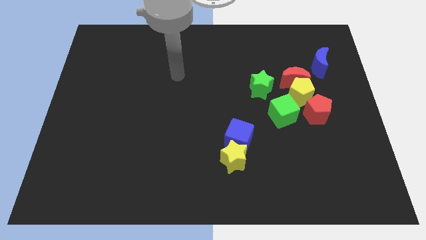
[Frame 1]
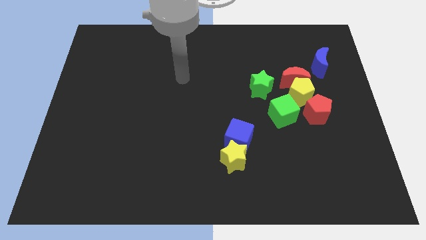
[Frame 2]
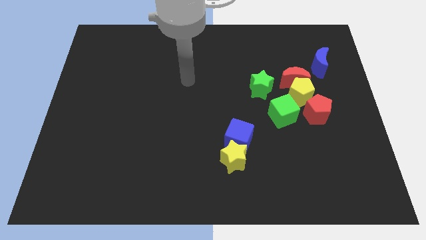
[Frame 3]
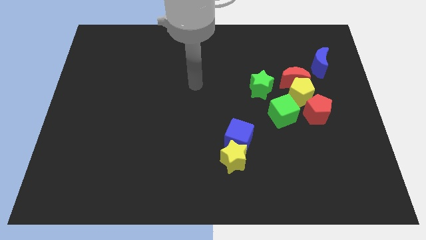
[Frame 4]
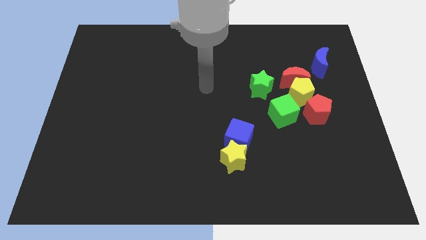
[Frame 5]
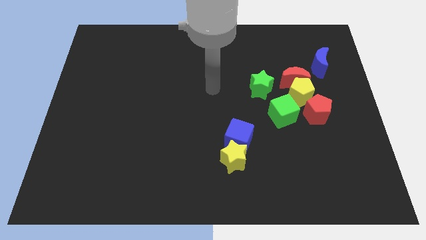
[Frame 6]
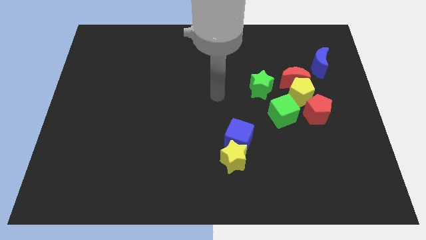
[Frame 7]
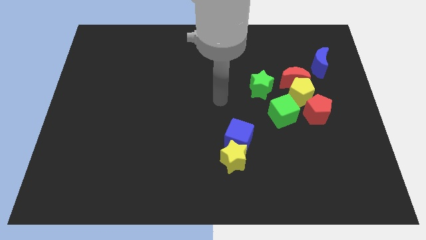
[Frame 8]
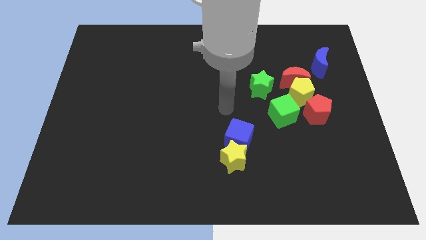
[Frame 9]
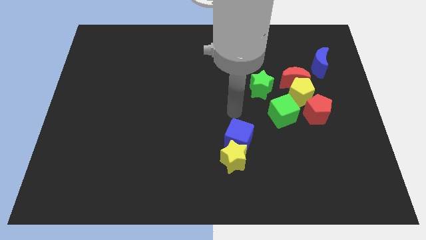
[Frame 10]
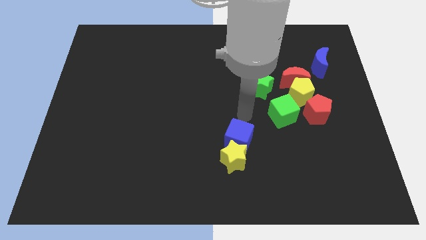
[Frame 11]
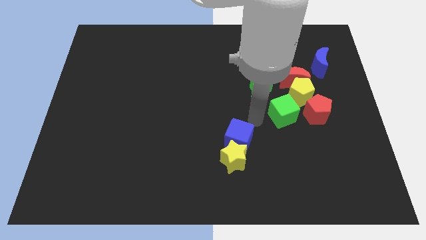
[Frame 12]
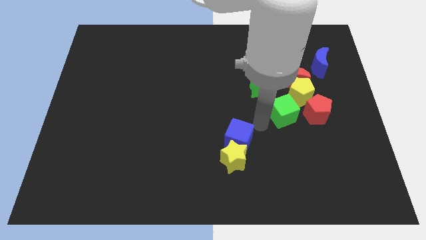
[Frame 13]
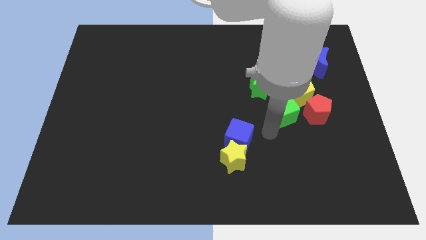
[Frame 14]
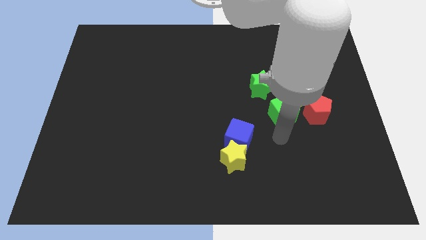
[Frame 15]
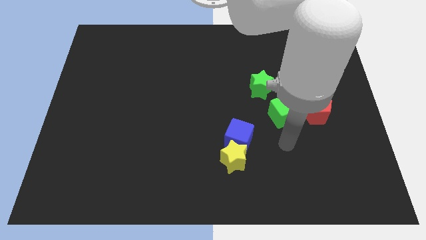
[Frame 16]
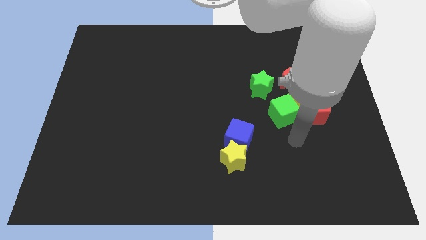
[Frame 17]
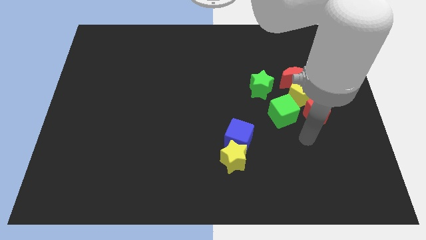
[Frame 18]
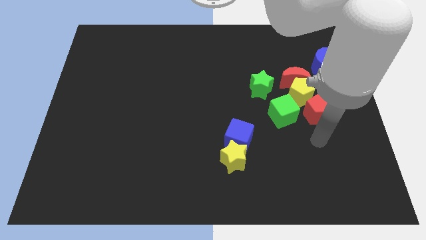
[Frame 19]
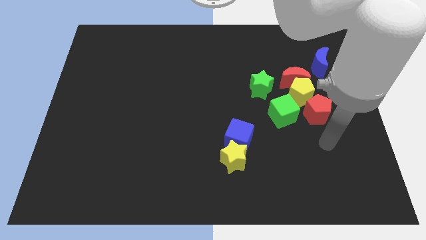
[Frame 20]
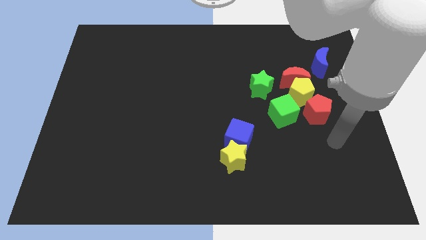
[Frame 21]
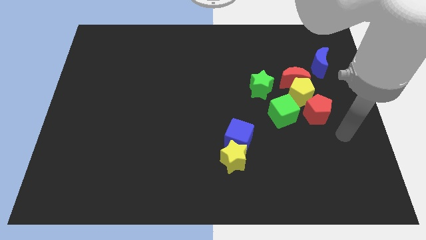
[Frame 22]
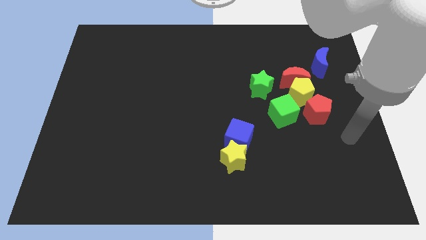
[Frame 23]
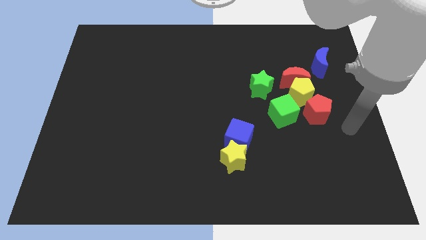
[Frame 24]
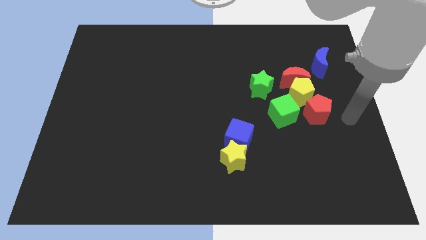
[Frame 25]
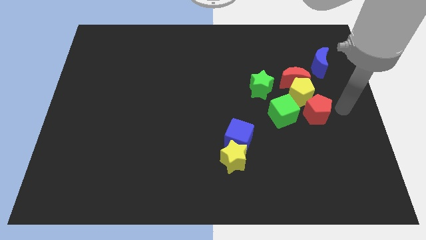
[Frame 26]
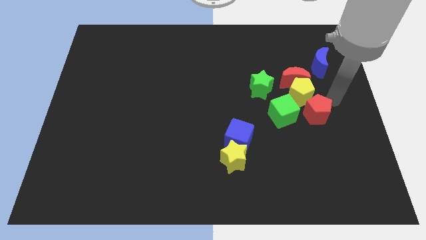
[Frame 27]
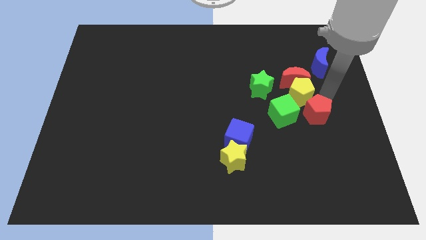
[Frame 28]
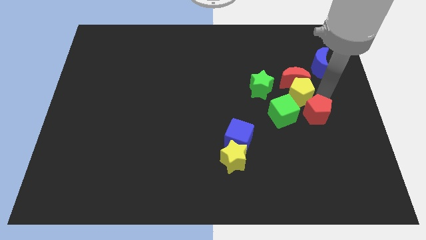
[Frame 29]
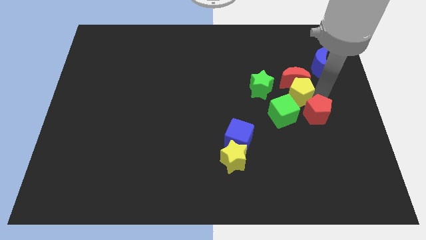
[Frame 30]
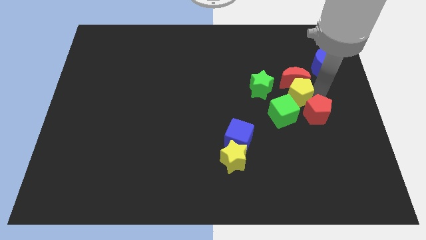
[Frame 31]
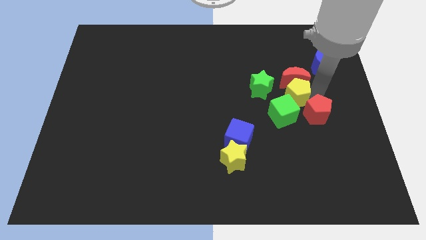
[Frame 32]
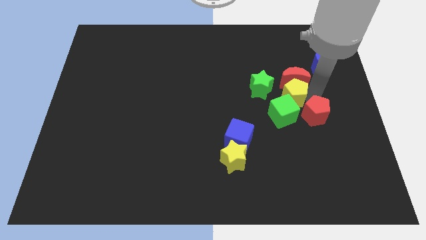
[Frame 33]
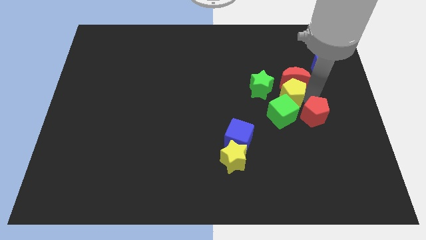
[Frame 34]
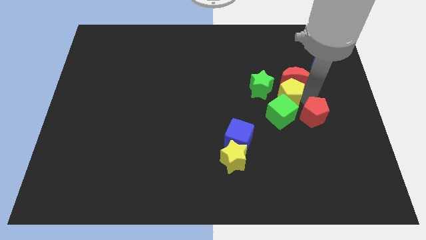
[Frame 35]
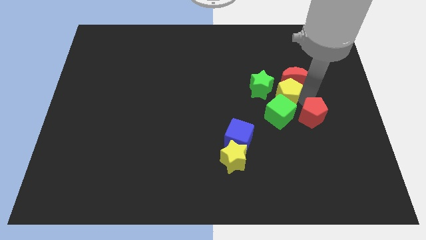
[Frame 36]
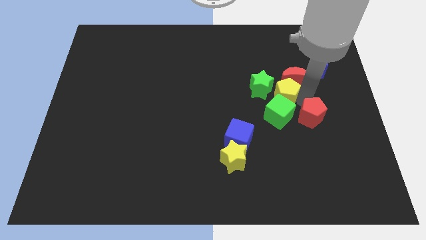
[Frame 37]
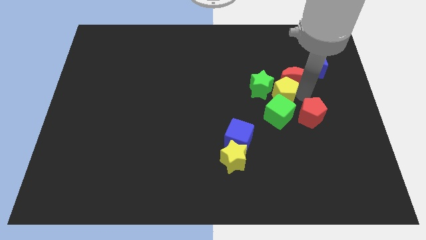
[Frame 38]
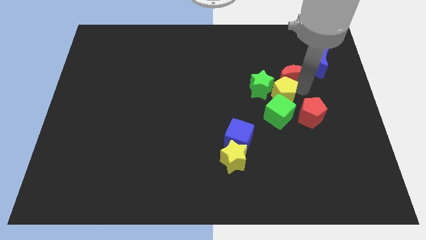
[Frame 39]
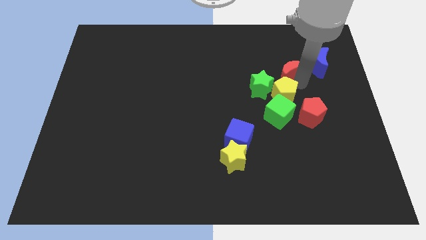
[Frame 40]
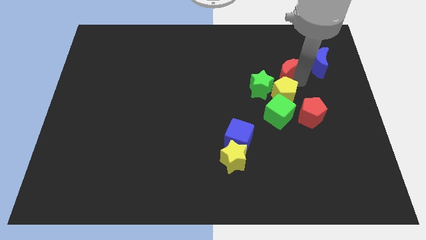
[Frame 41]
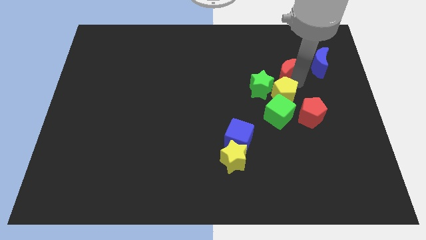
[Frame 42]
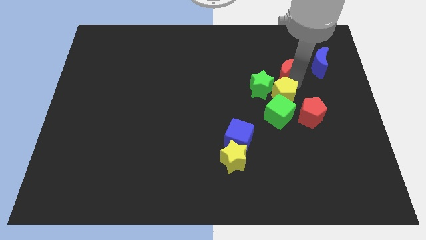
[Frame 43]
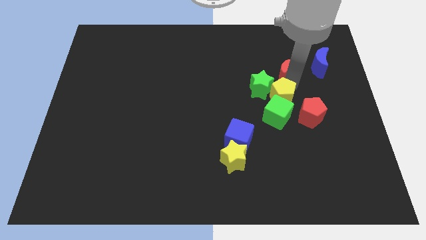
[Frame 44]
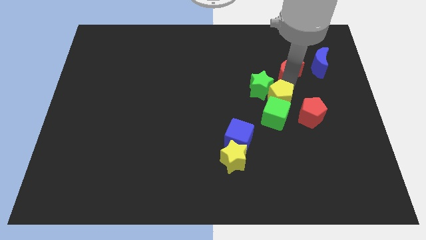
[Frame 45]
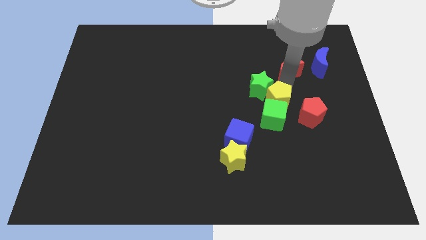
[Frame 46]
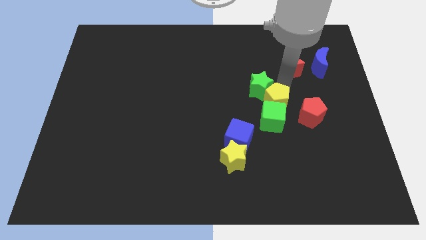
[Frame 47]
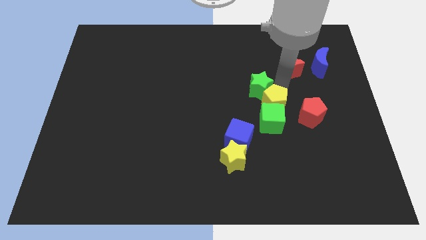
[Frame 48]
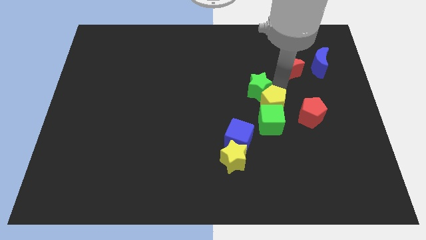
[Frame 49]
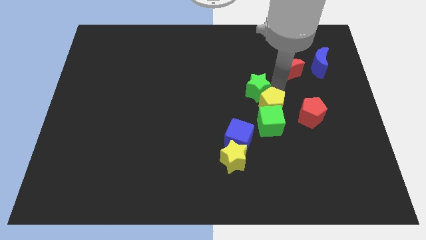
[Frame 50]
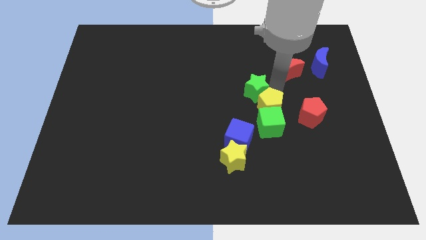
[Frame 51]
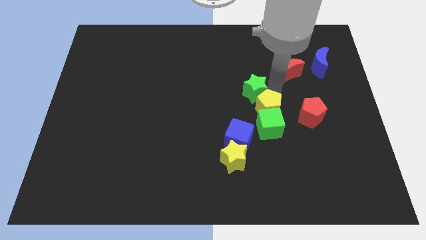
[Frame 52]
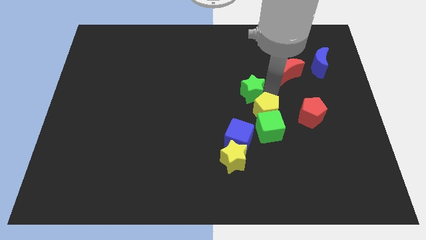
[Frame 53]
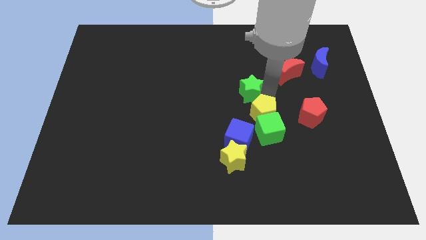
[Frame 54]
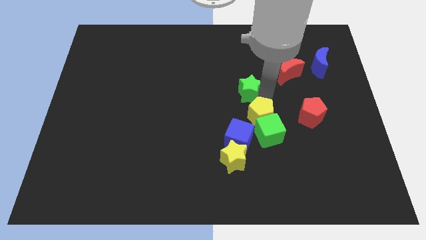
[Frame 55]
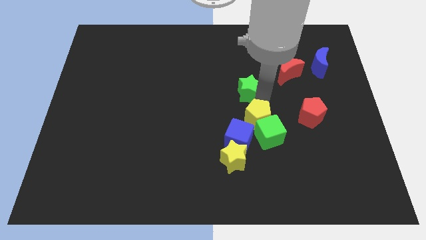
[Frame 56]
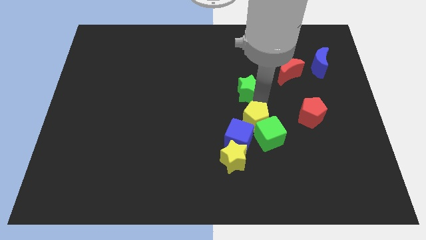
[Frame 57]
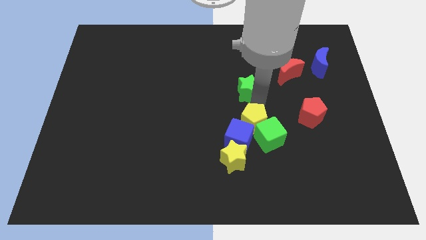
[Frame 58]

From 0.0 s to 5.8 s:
slide the yellow pentagon to the blue cube

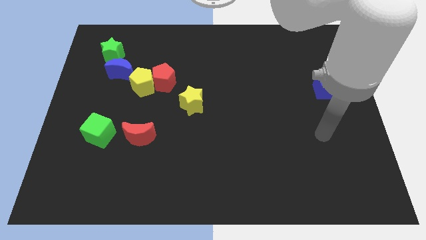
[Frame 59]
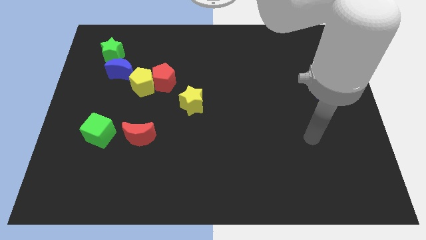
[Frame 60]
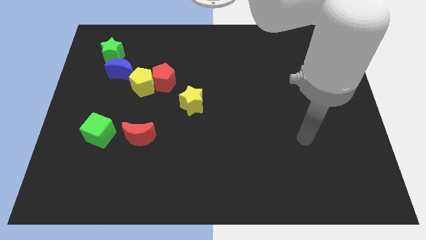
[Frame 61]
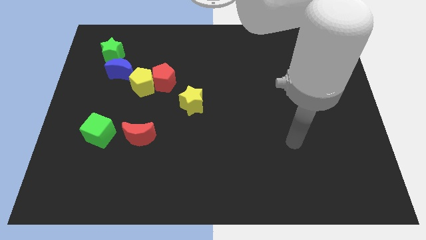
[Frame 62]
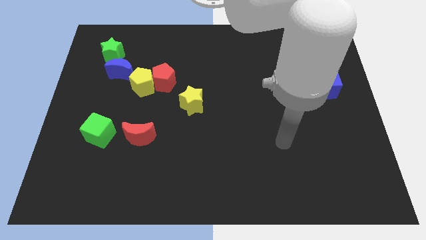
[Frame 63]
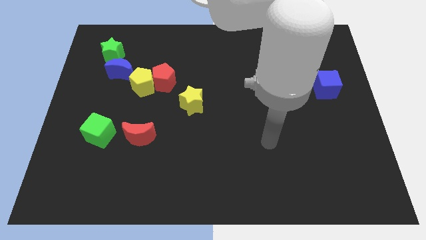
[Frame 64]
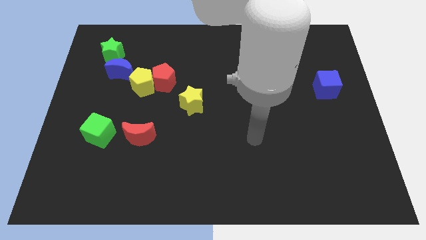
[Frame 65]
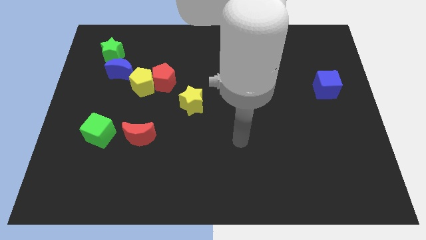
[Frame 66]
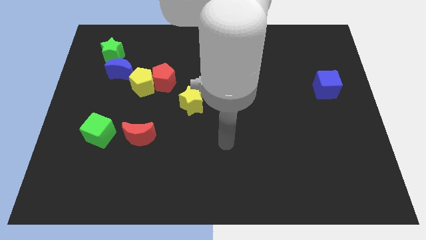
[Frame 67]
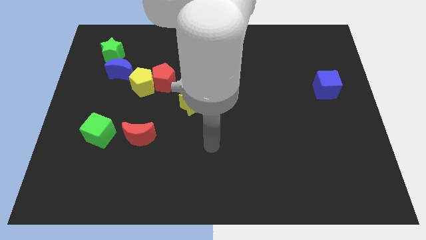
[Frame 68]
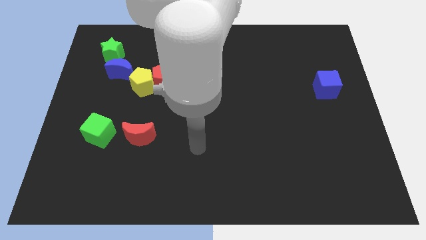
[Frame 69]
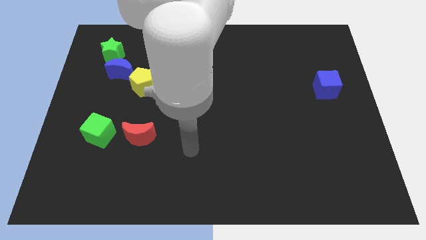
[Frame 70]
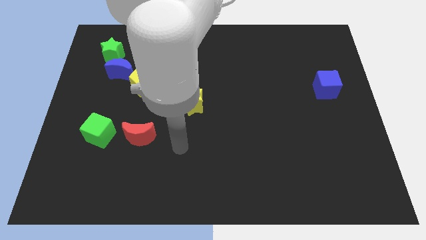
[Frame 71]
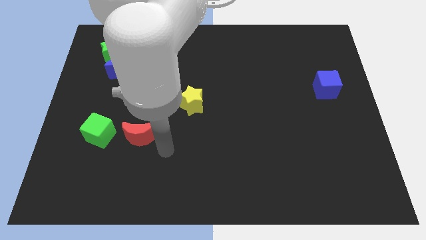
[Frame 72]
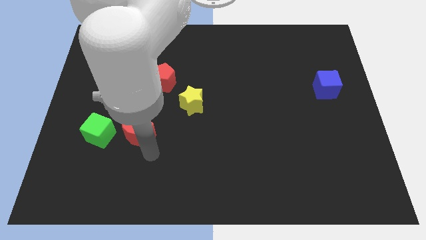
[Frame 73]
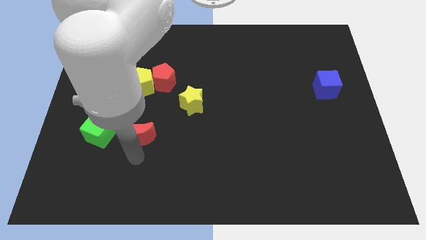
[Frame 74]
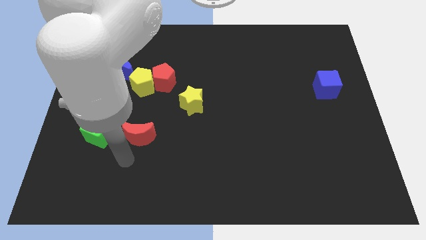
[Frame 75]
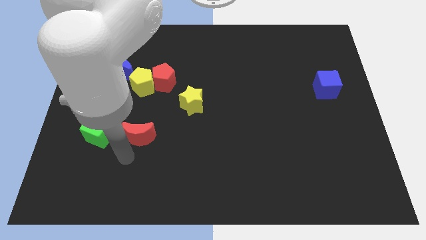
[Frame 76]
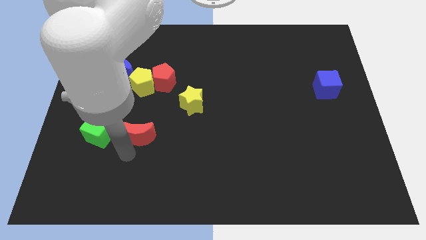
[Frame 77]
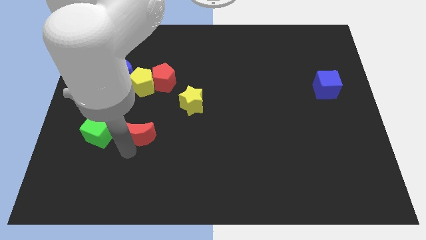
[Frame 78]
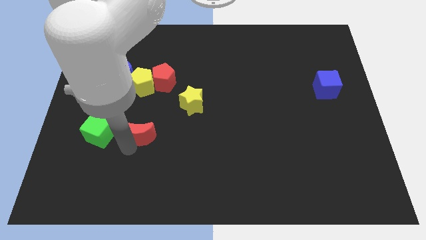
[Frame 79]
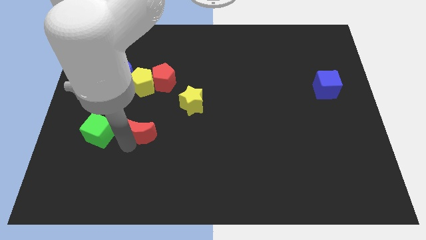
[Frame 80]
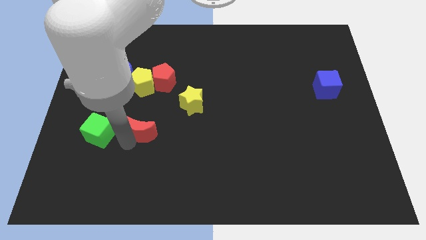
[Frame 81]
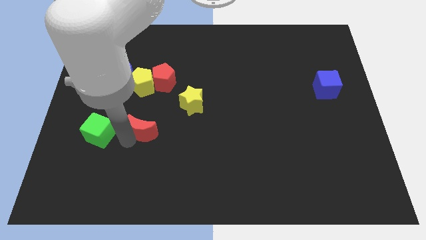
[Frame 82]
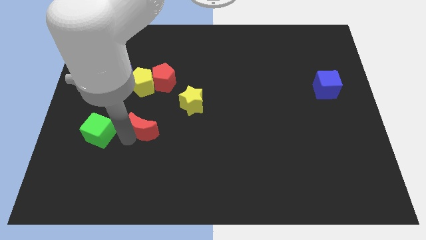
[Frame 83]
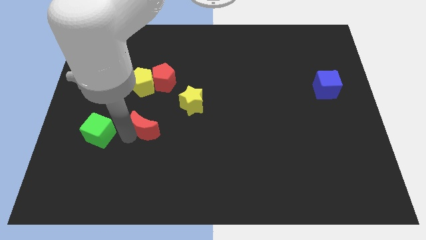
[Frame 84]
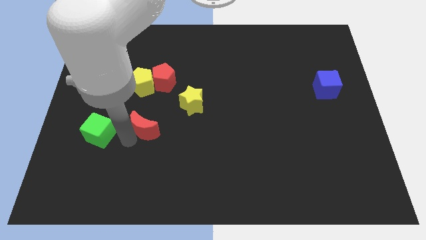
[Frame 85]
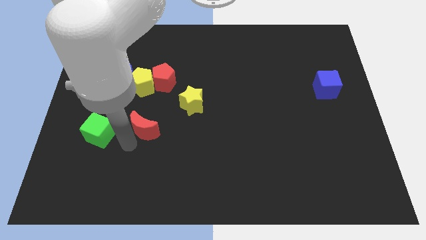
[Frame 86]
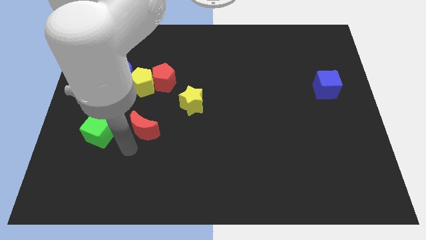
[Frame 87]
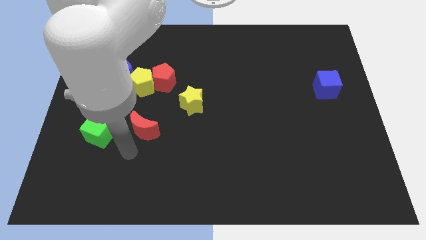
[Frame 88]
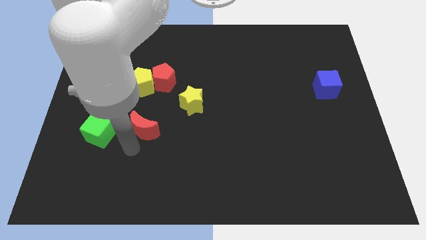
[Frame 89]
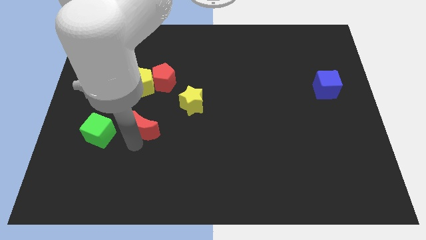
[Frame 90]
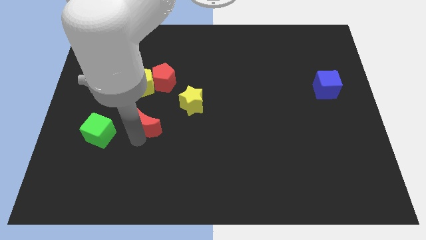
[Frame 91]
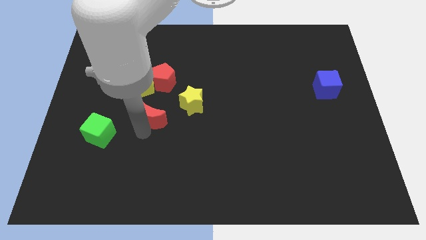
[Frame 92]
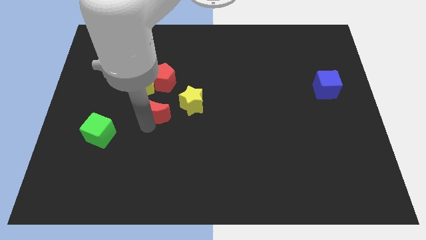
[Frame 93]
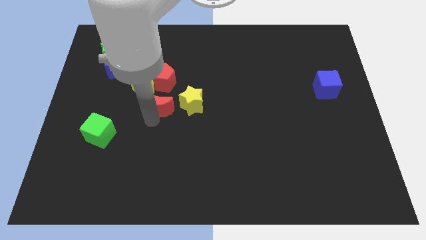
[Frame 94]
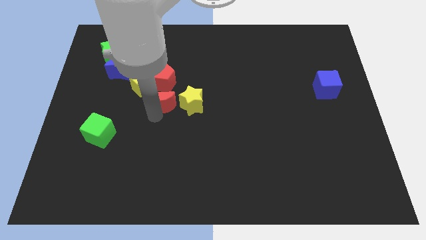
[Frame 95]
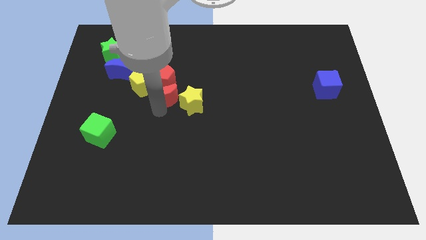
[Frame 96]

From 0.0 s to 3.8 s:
put the red moon next to the red pentagon
